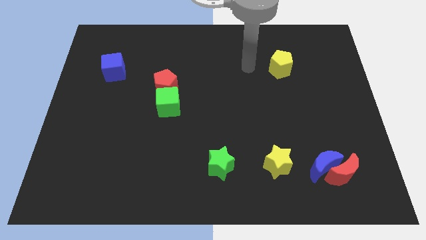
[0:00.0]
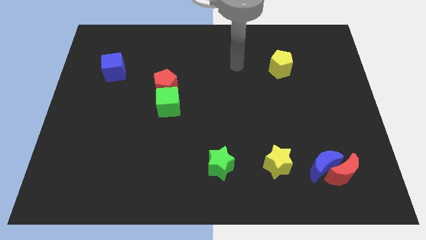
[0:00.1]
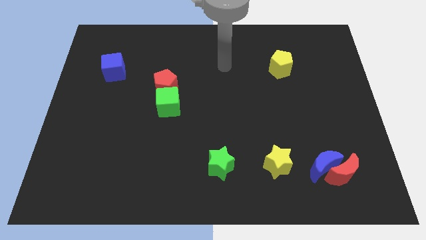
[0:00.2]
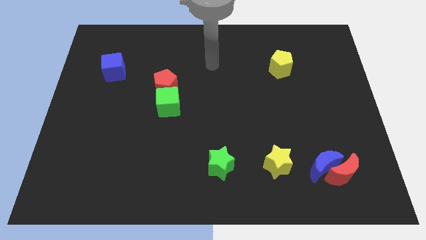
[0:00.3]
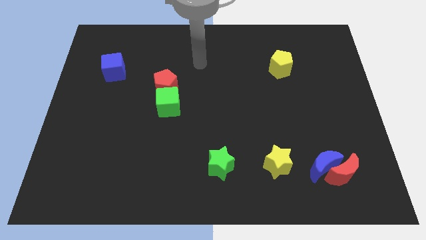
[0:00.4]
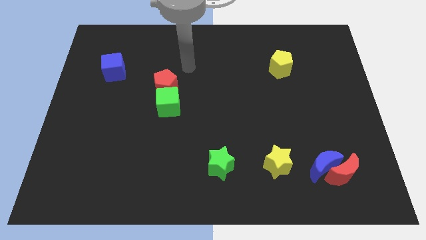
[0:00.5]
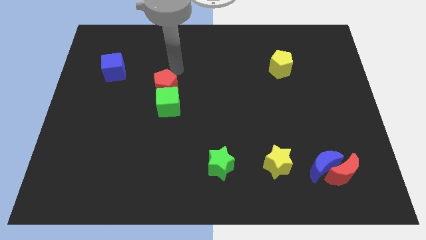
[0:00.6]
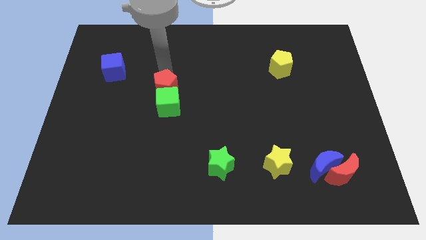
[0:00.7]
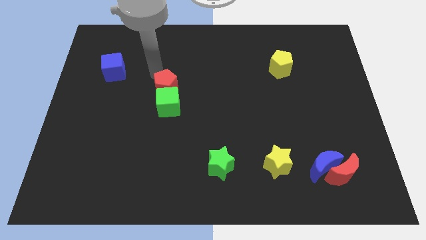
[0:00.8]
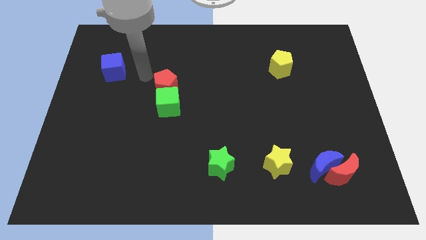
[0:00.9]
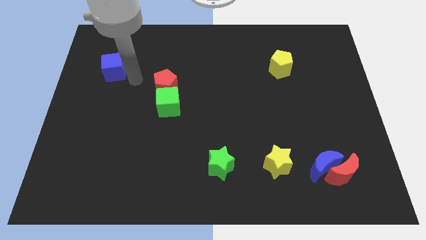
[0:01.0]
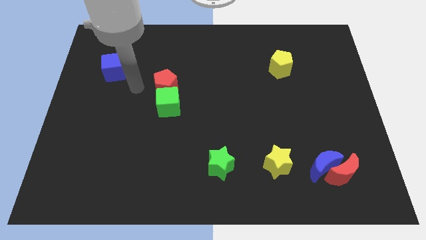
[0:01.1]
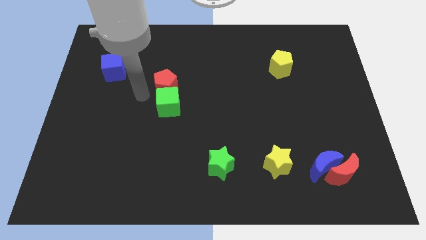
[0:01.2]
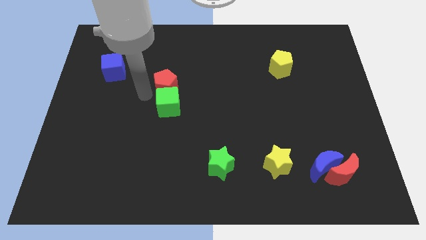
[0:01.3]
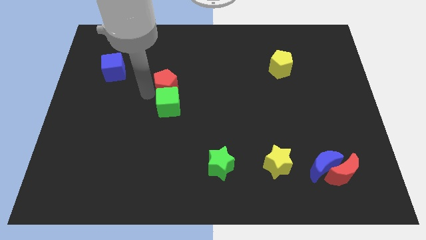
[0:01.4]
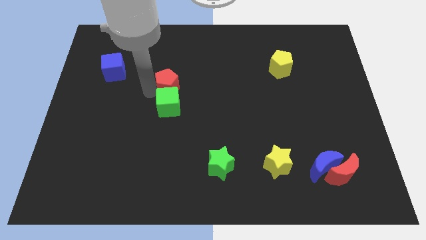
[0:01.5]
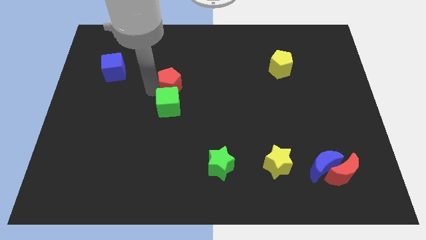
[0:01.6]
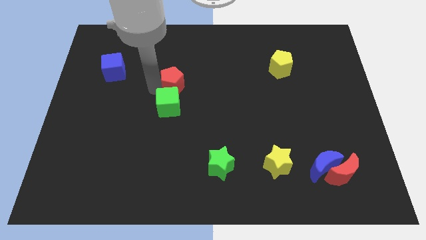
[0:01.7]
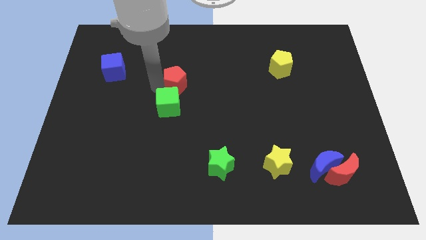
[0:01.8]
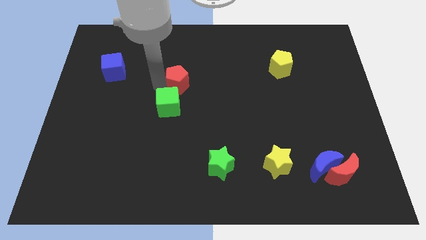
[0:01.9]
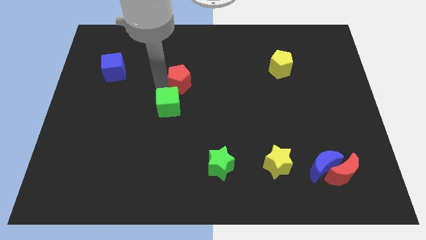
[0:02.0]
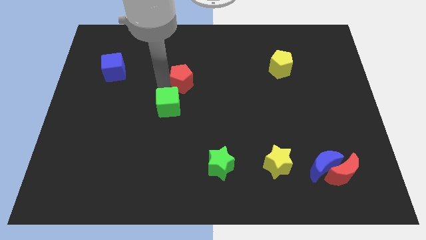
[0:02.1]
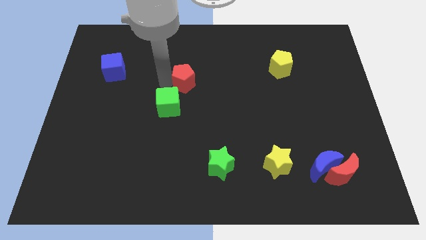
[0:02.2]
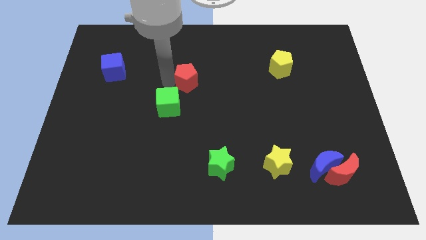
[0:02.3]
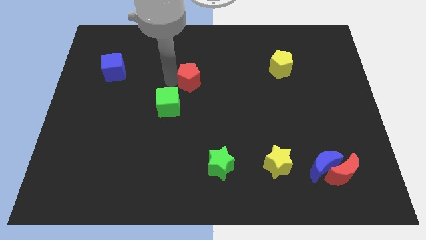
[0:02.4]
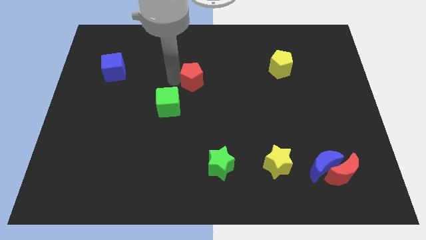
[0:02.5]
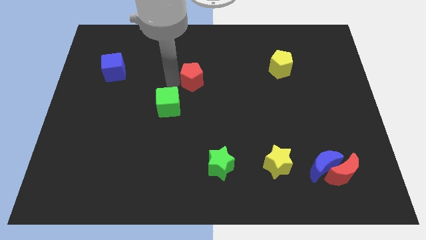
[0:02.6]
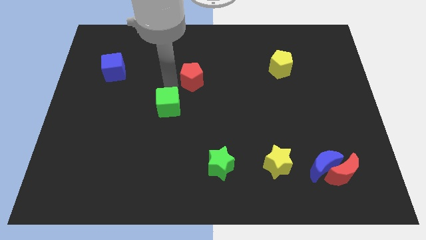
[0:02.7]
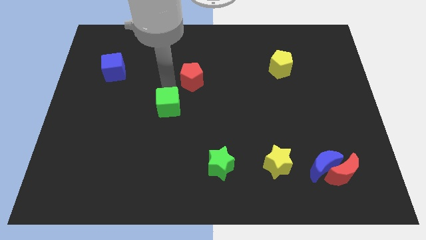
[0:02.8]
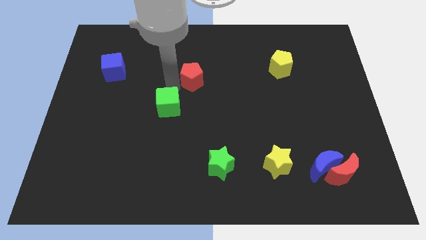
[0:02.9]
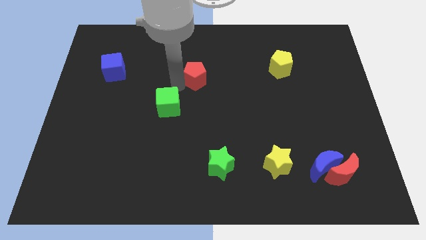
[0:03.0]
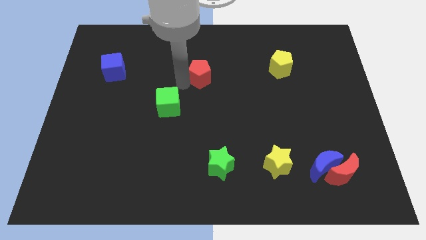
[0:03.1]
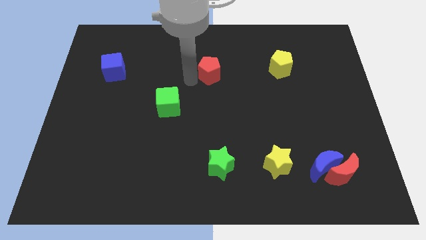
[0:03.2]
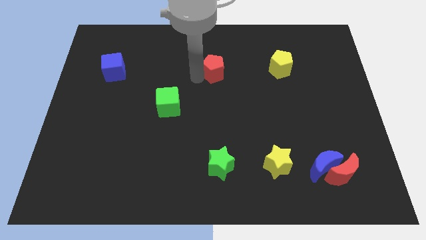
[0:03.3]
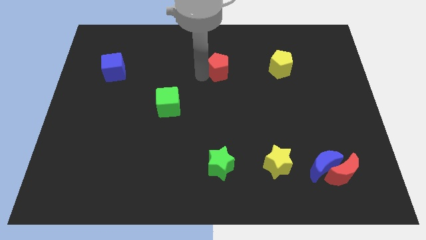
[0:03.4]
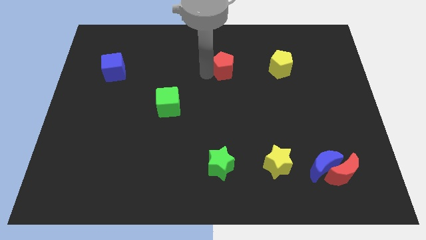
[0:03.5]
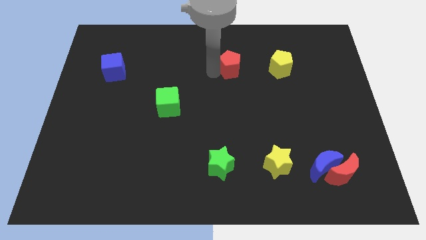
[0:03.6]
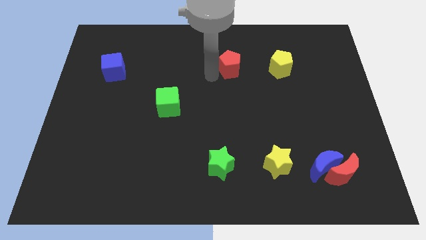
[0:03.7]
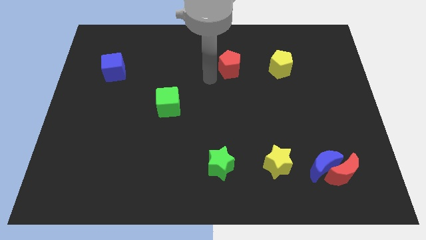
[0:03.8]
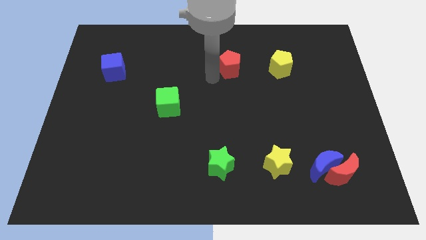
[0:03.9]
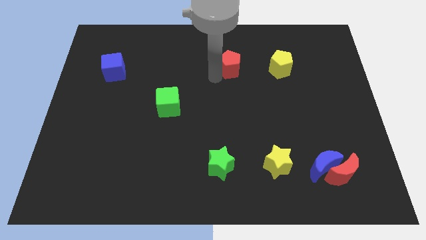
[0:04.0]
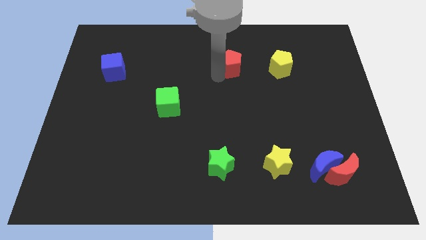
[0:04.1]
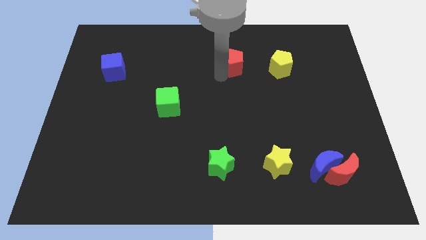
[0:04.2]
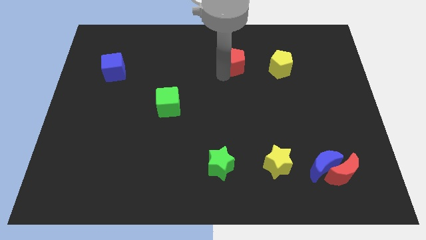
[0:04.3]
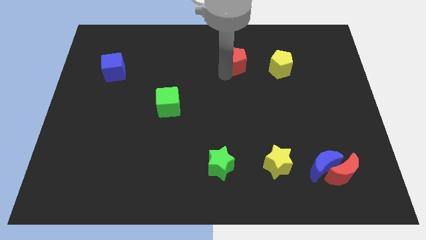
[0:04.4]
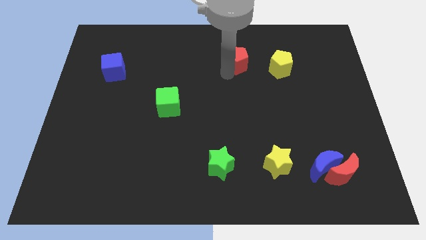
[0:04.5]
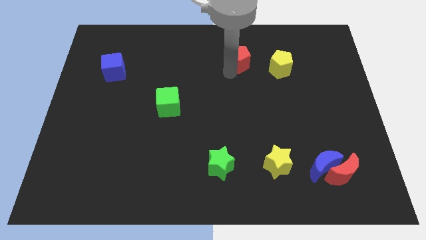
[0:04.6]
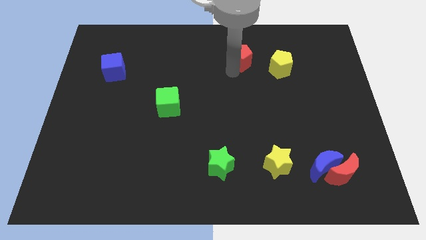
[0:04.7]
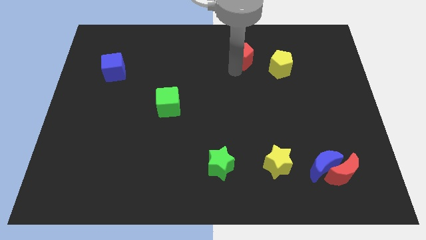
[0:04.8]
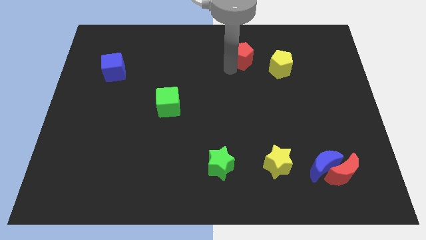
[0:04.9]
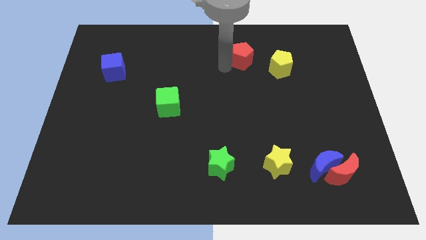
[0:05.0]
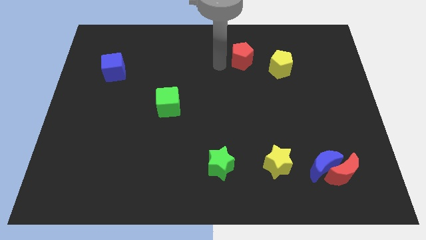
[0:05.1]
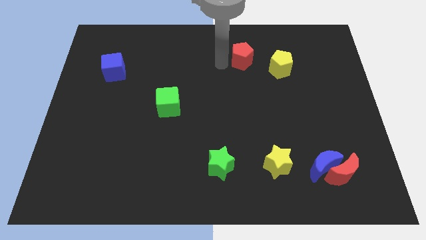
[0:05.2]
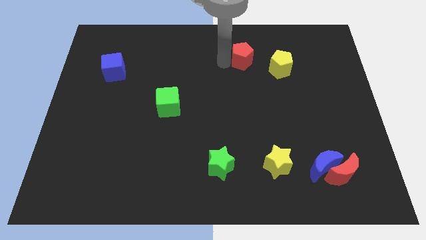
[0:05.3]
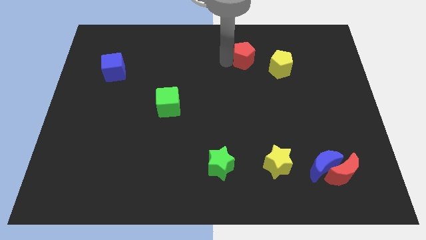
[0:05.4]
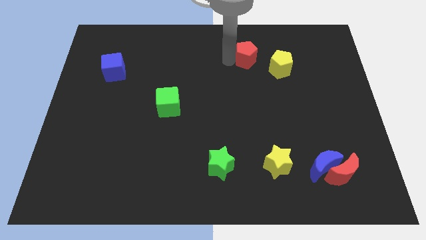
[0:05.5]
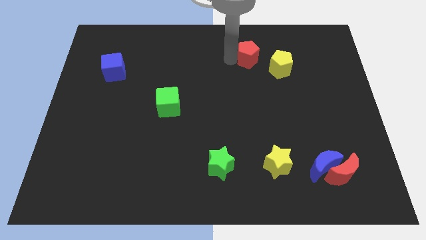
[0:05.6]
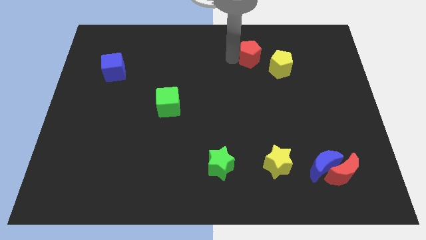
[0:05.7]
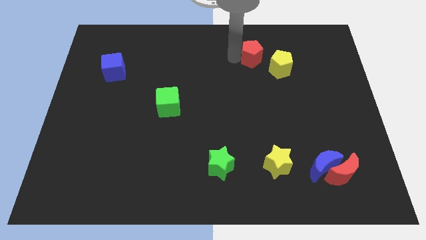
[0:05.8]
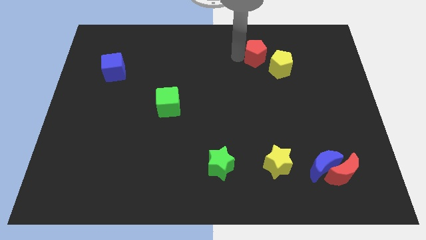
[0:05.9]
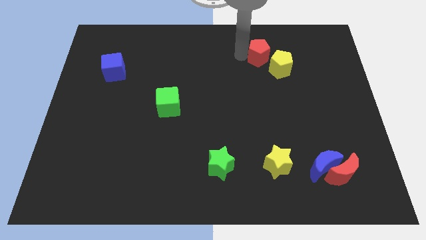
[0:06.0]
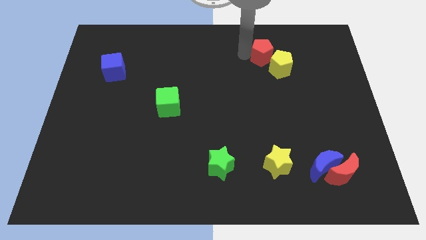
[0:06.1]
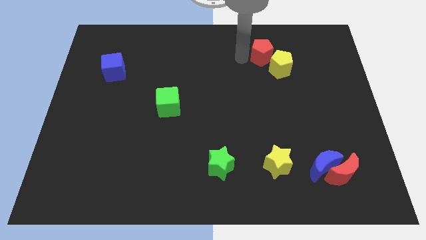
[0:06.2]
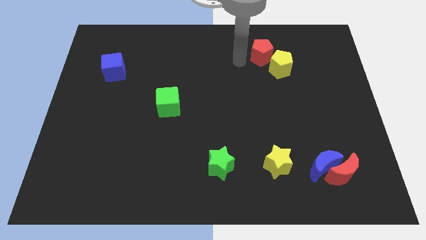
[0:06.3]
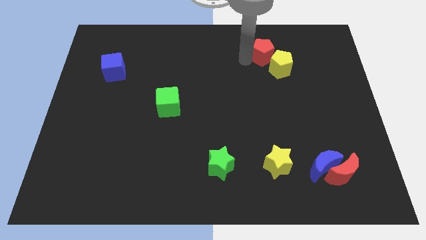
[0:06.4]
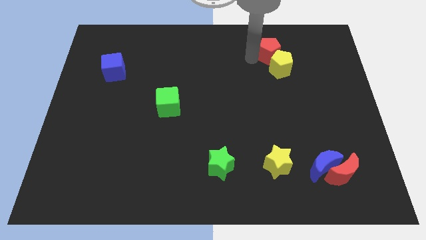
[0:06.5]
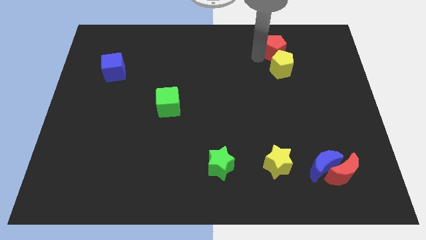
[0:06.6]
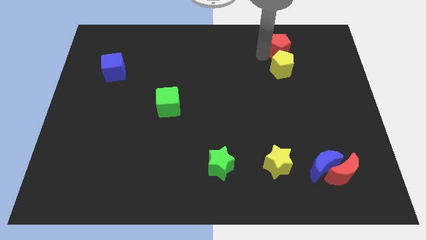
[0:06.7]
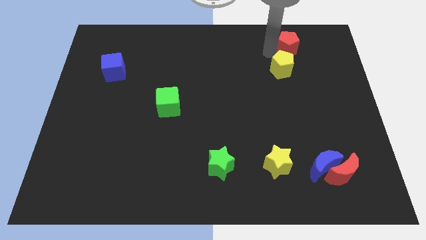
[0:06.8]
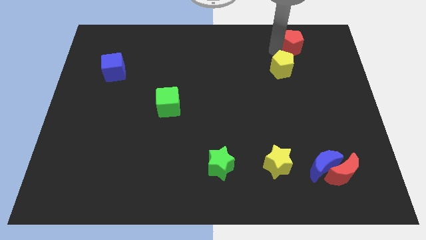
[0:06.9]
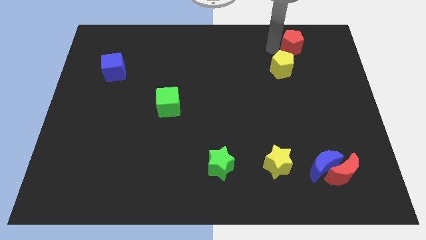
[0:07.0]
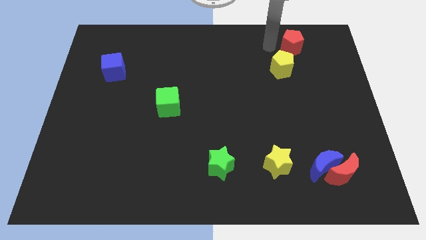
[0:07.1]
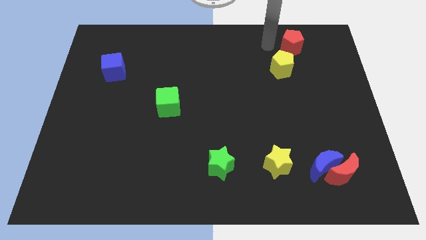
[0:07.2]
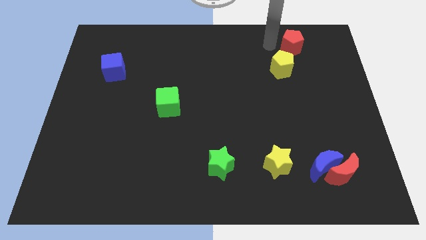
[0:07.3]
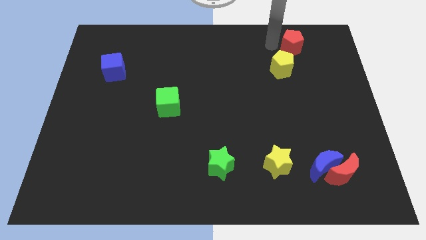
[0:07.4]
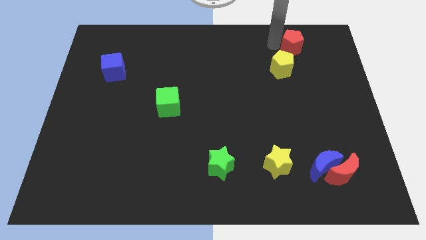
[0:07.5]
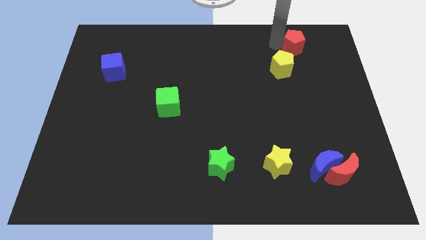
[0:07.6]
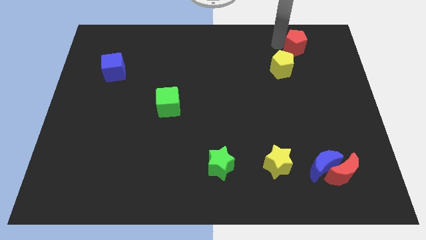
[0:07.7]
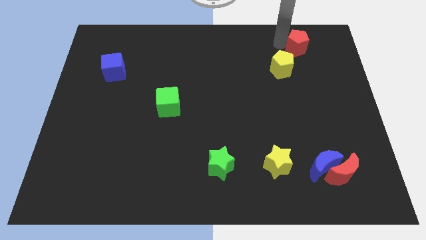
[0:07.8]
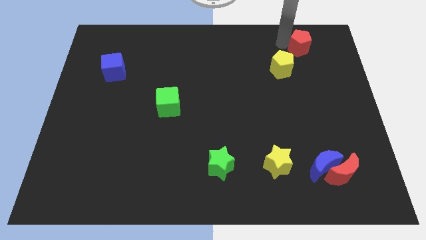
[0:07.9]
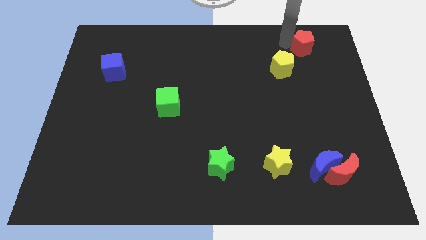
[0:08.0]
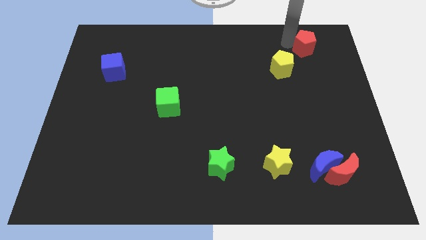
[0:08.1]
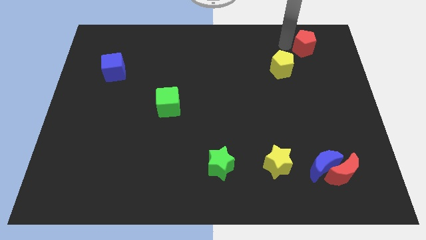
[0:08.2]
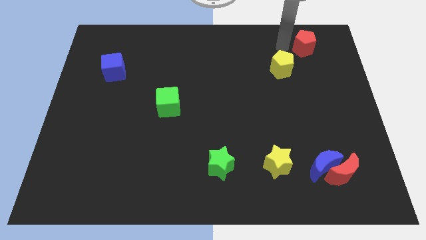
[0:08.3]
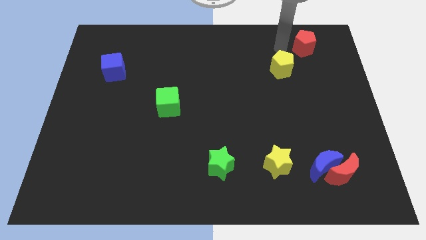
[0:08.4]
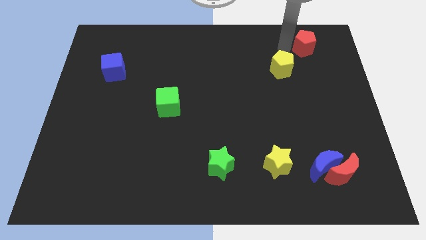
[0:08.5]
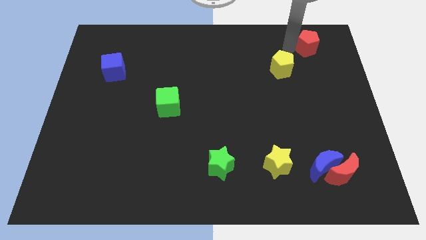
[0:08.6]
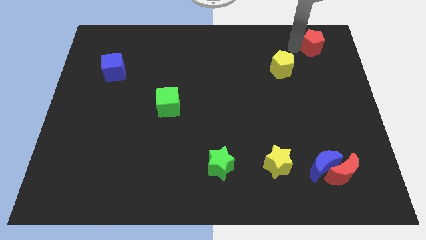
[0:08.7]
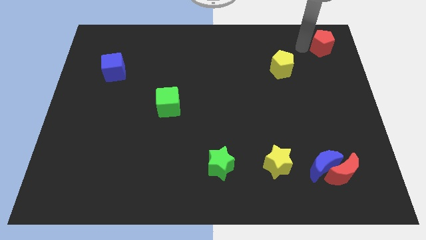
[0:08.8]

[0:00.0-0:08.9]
move the red pentagon to the top right of the board
